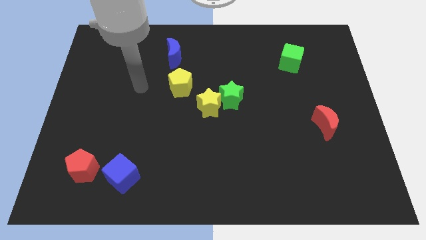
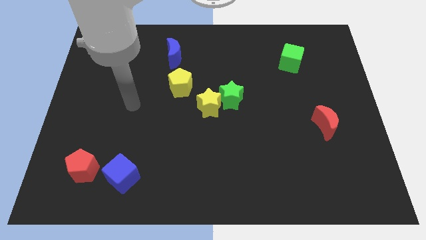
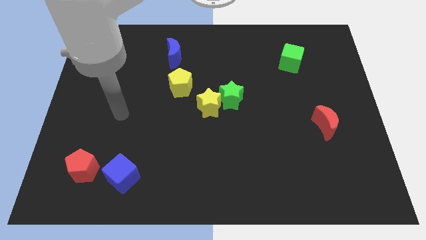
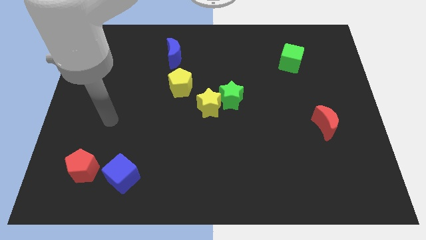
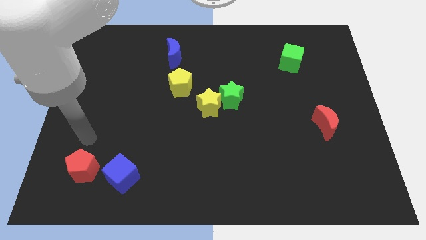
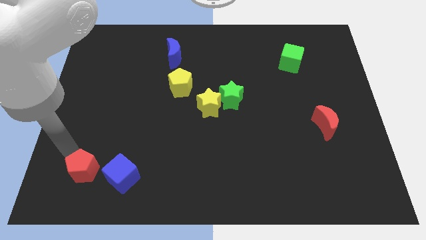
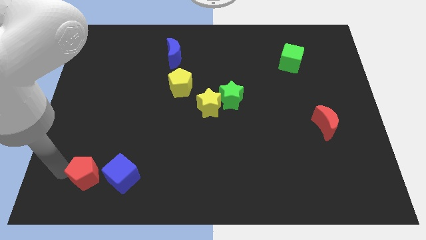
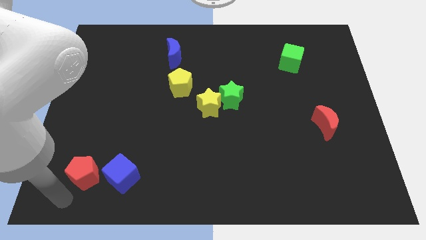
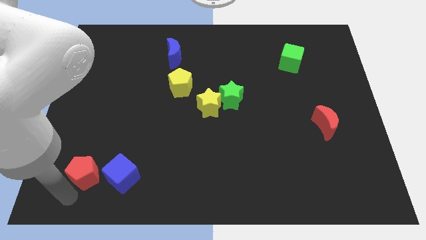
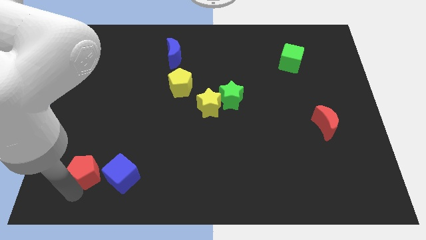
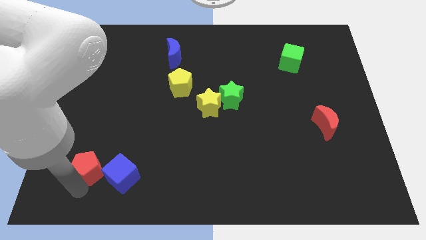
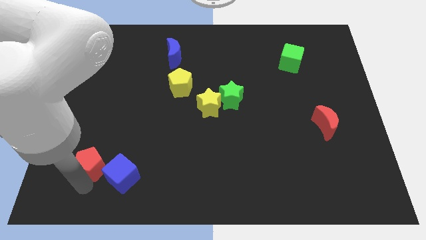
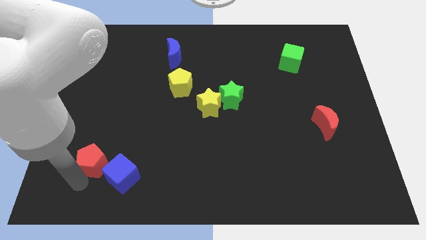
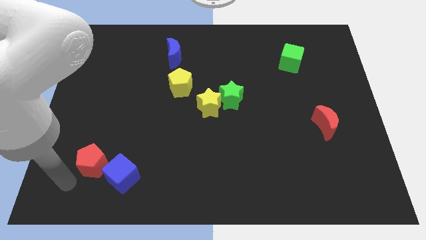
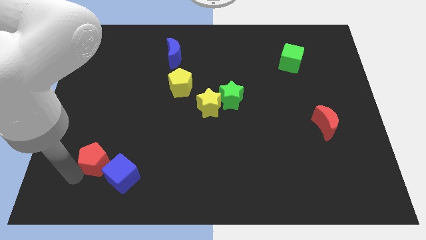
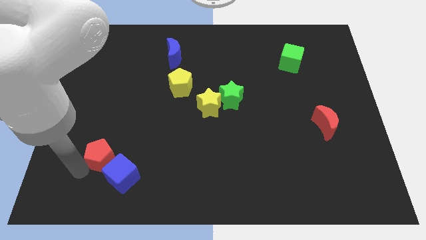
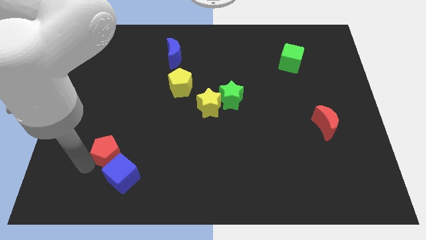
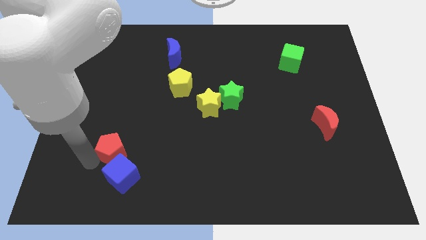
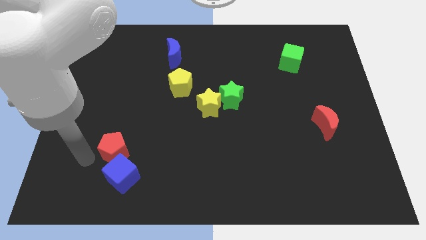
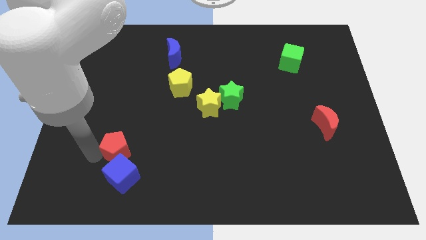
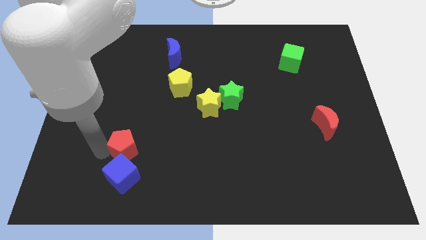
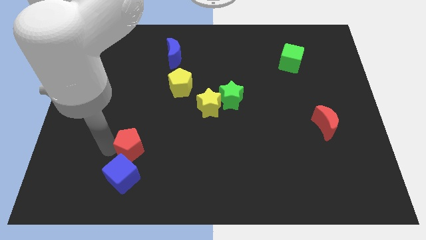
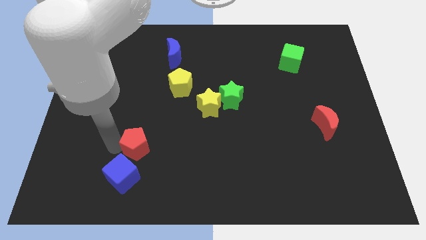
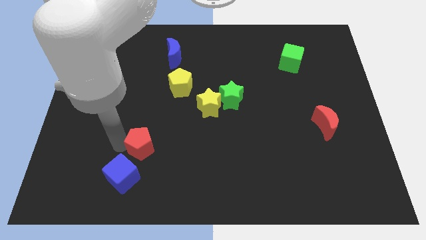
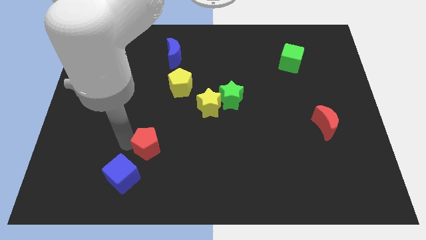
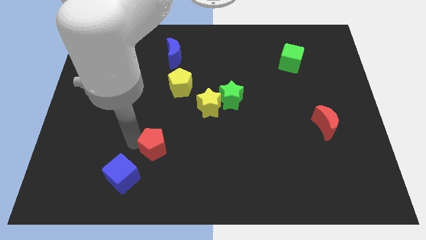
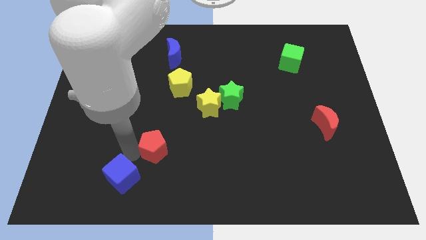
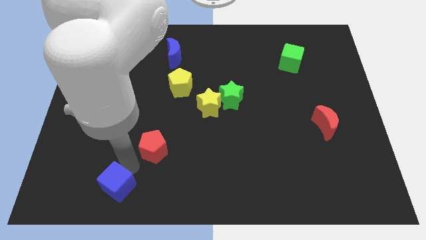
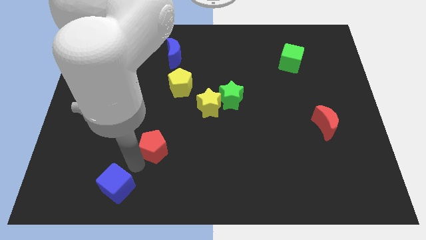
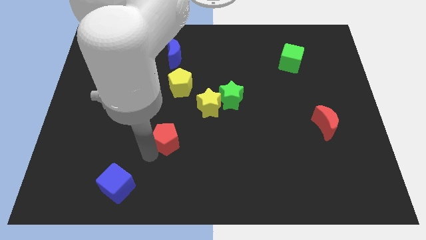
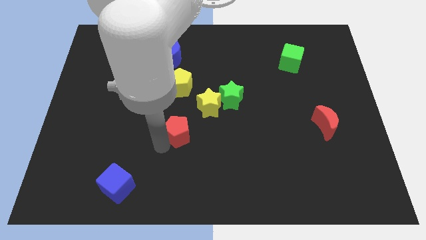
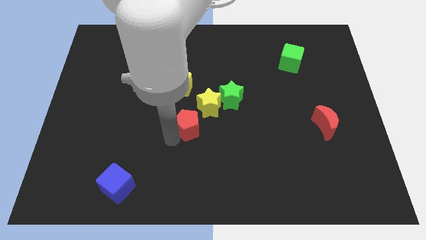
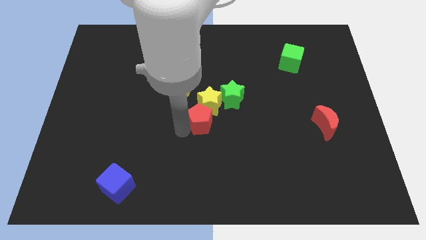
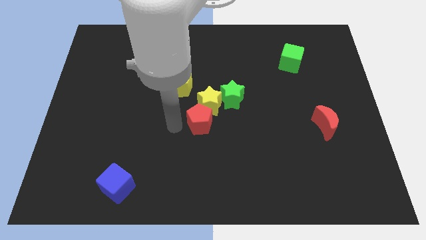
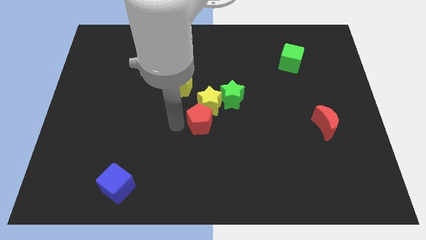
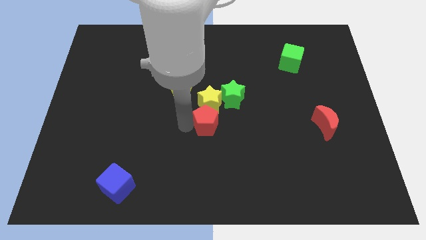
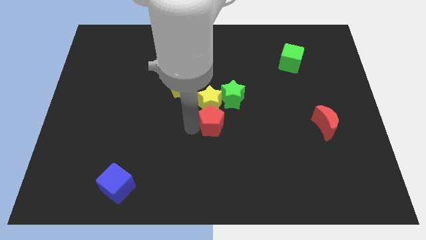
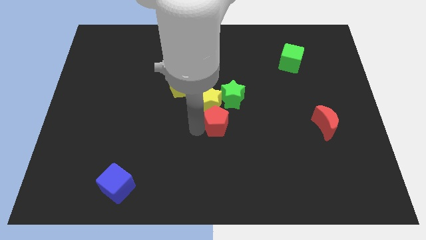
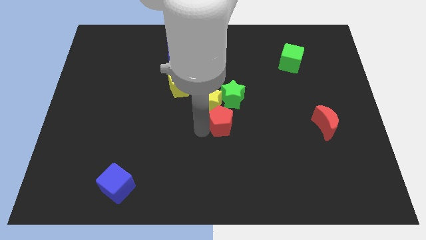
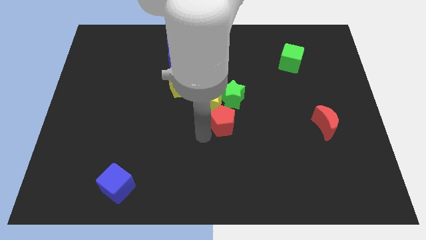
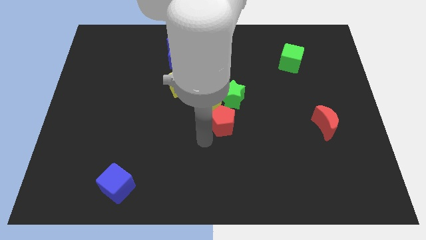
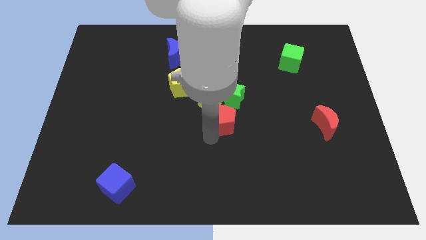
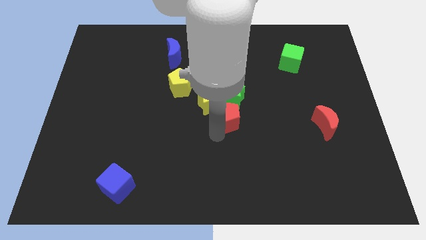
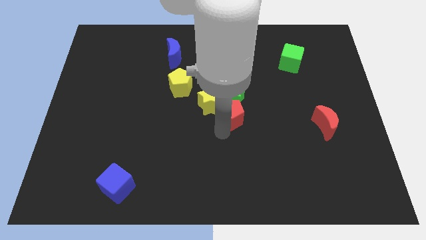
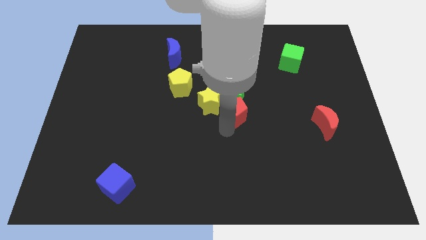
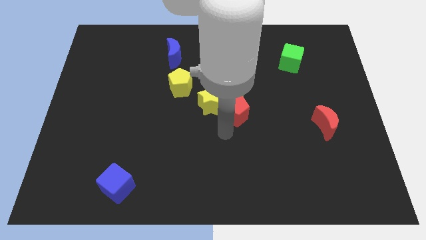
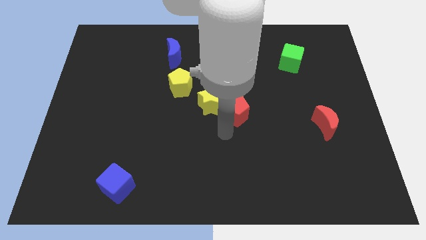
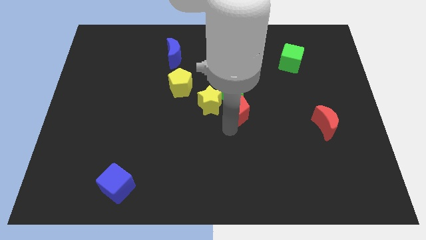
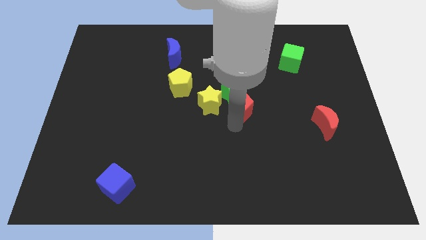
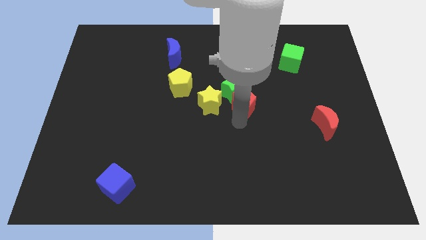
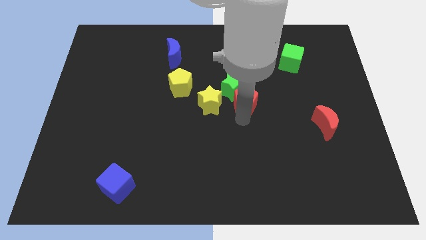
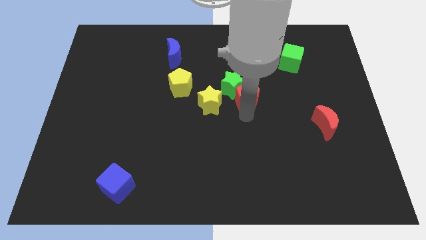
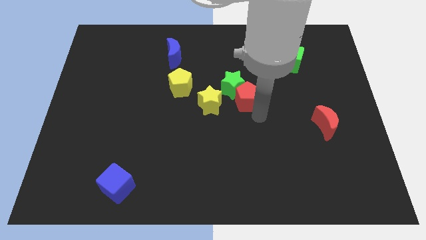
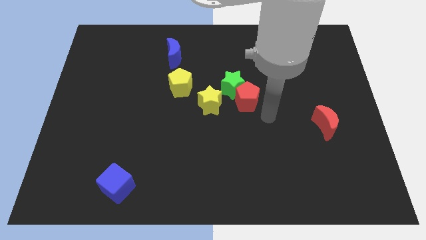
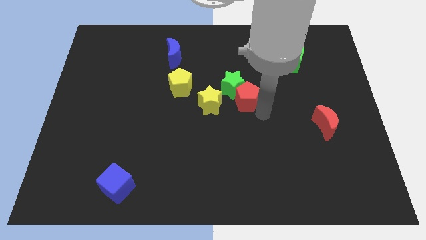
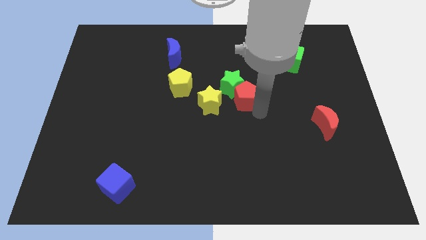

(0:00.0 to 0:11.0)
move the red pentagon to the top right side of the yellow star

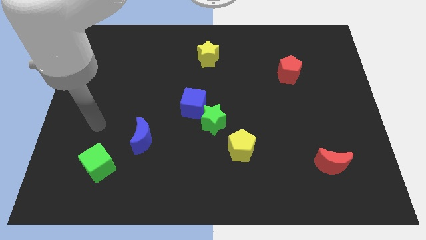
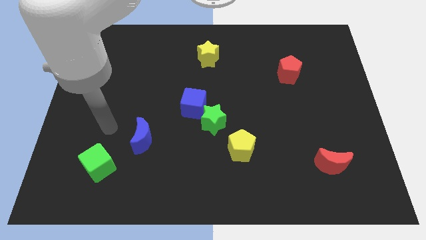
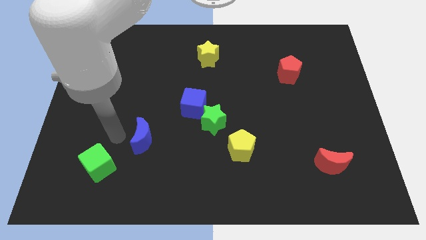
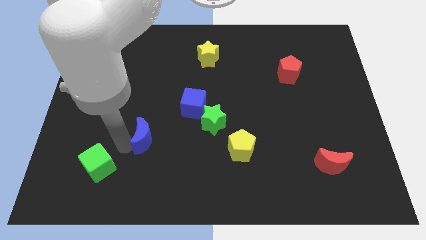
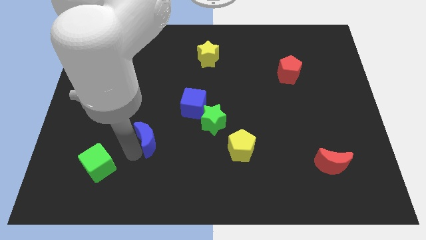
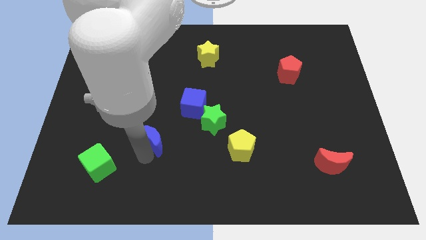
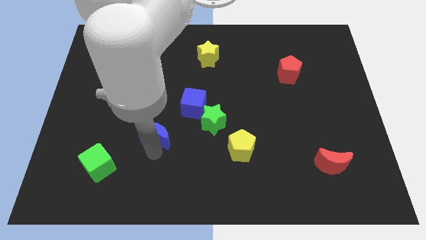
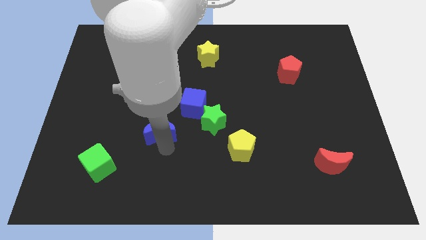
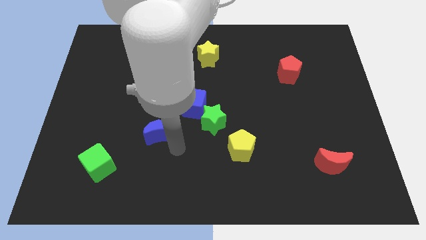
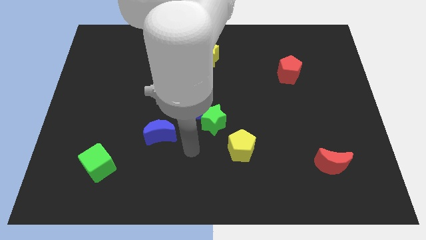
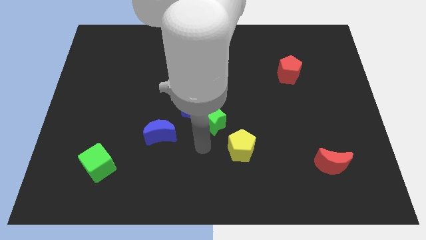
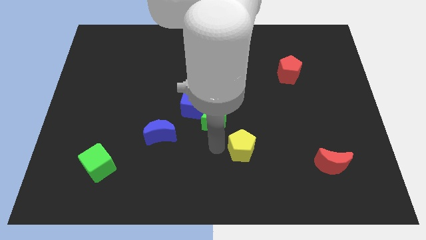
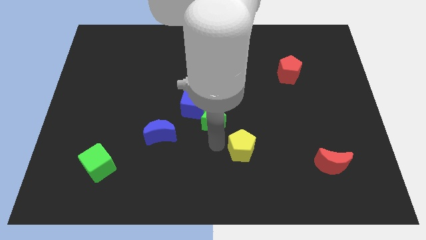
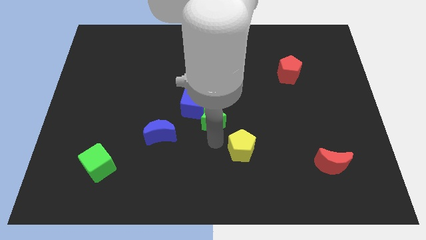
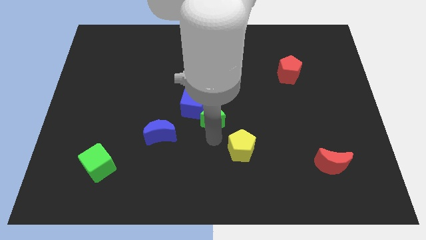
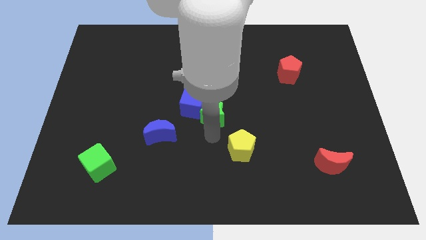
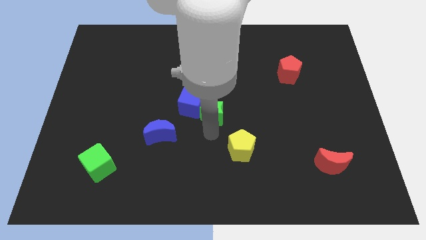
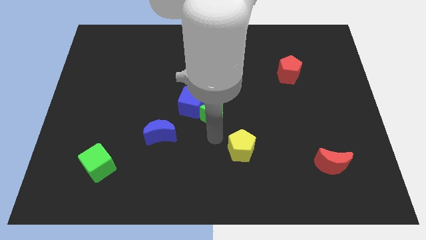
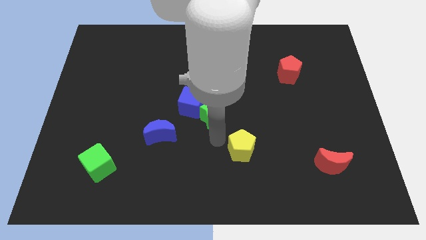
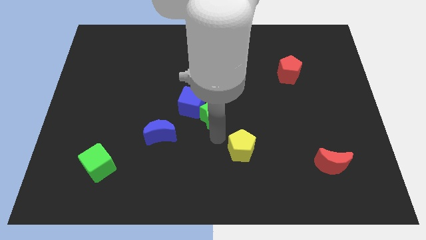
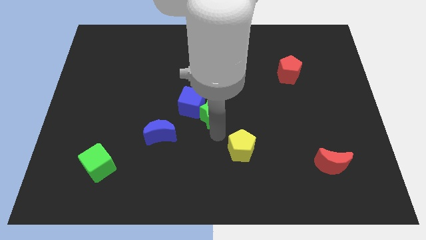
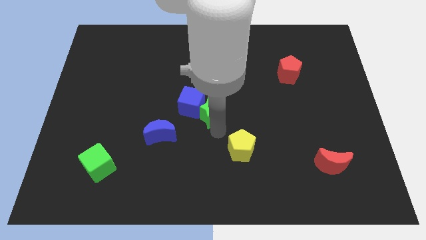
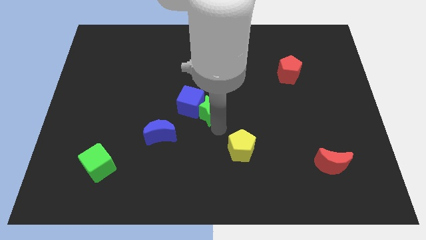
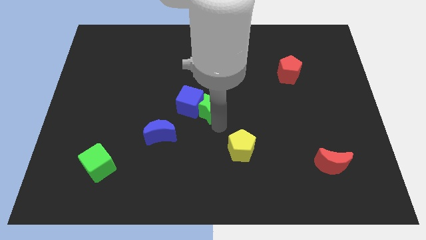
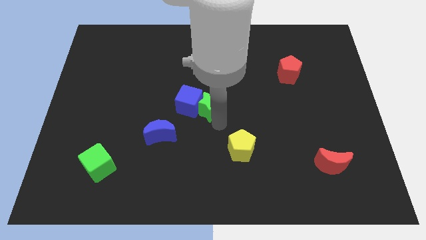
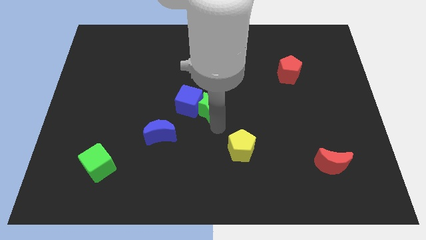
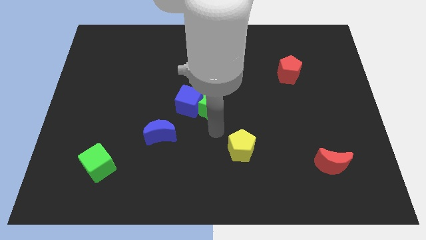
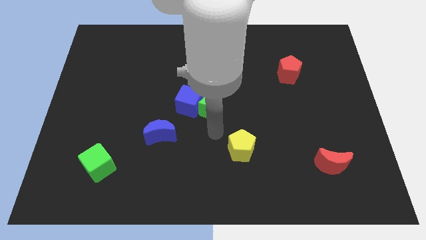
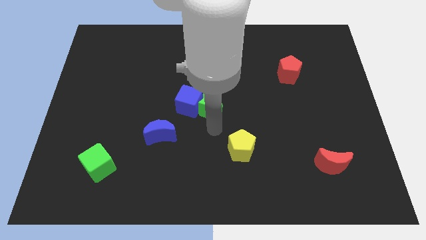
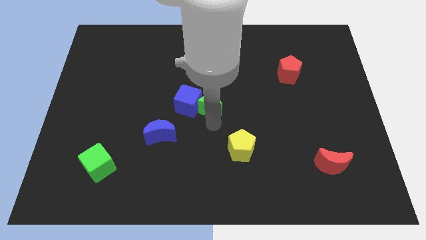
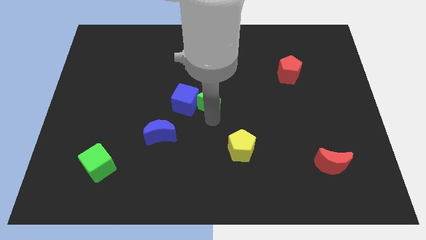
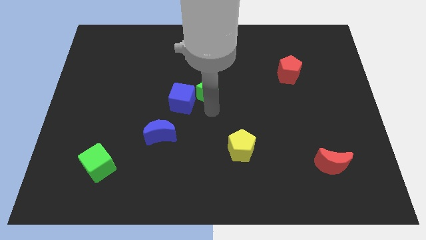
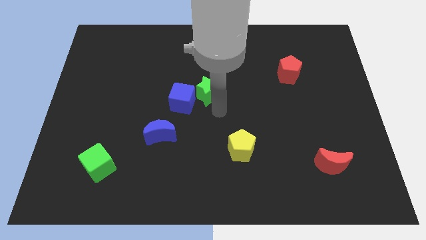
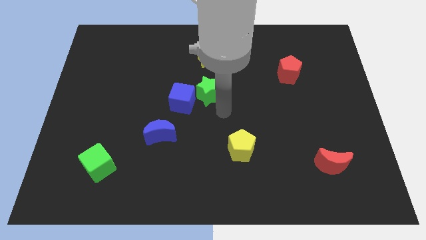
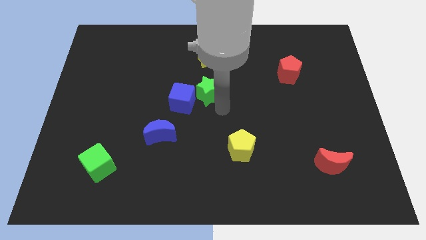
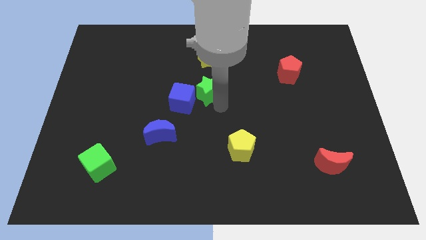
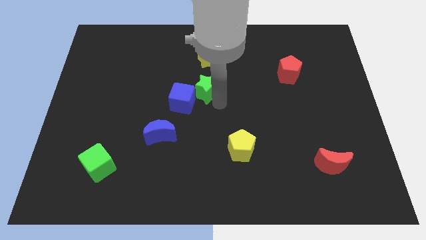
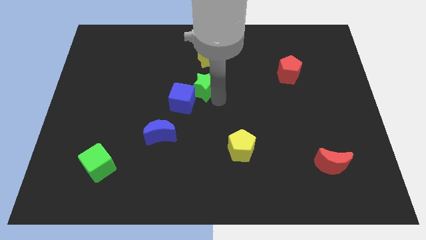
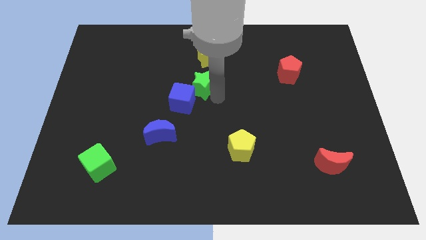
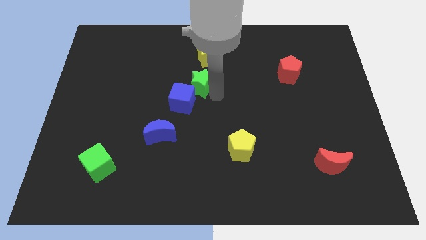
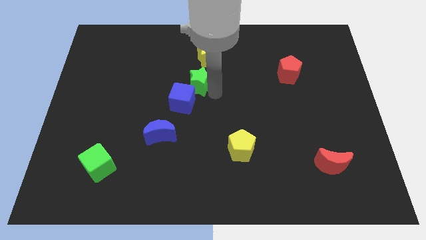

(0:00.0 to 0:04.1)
move the green star to the bottom left of the yellow star
